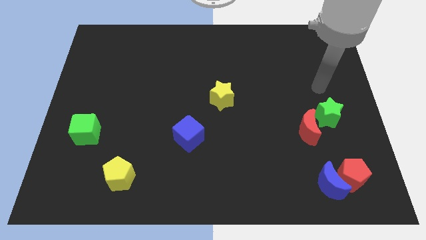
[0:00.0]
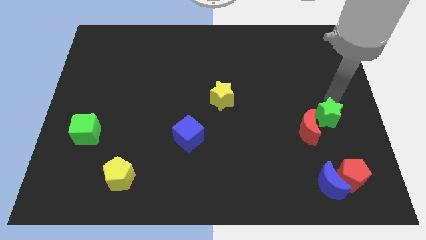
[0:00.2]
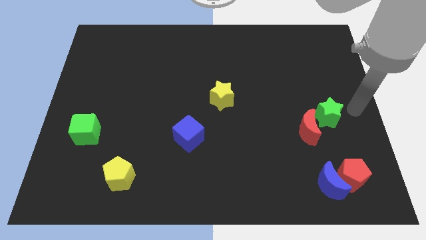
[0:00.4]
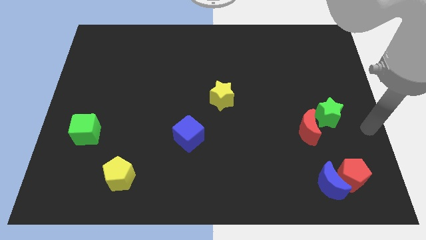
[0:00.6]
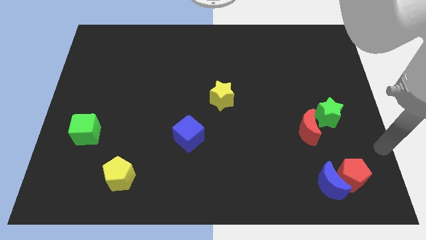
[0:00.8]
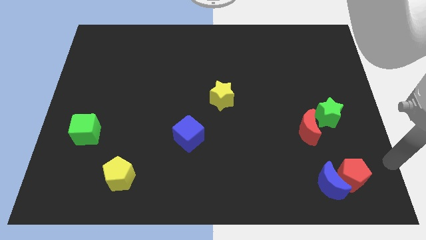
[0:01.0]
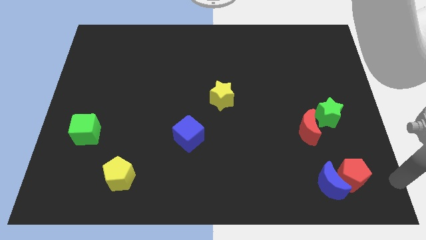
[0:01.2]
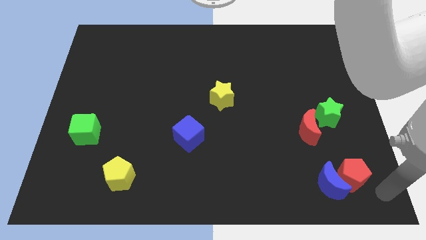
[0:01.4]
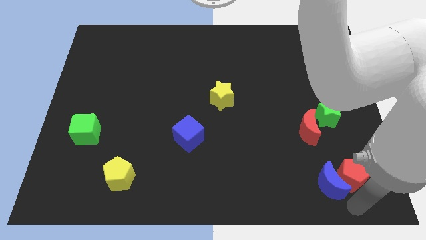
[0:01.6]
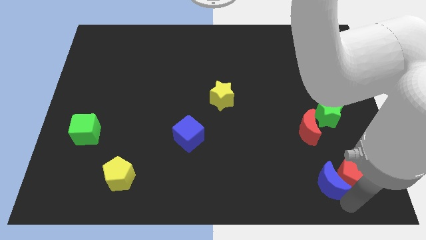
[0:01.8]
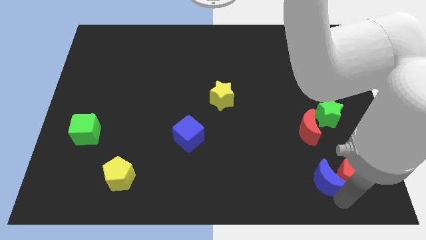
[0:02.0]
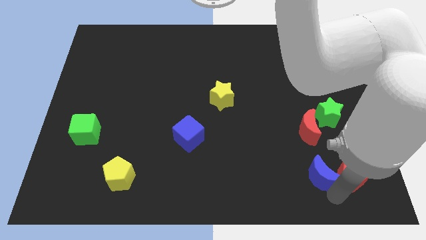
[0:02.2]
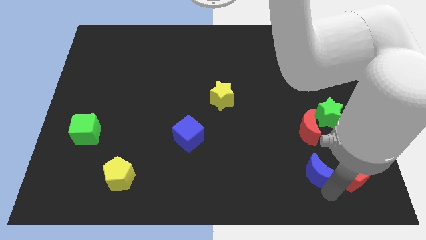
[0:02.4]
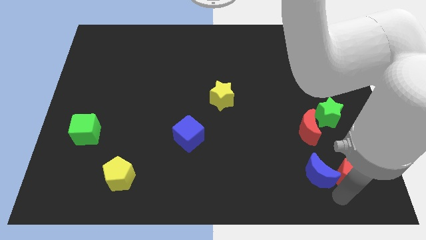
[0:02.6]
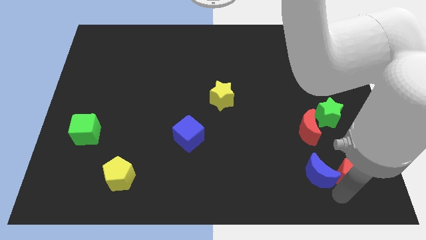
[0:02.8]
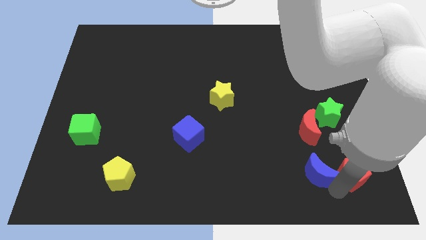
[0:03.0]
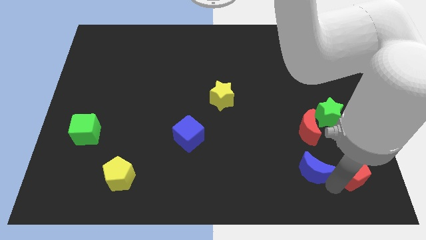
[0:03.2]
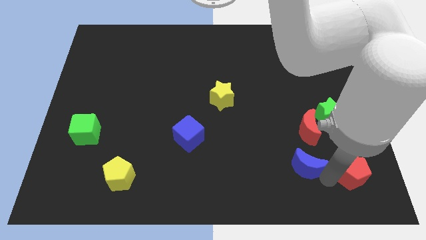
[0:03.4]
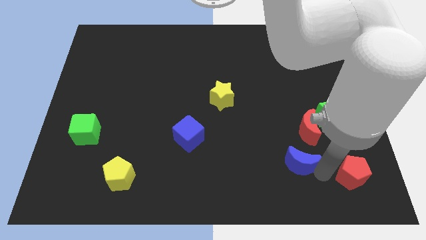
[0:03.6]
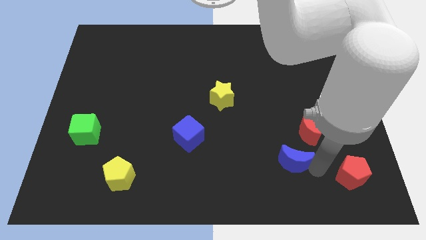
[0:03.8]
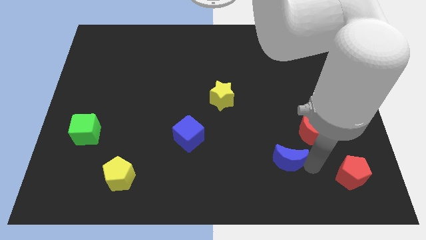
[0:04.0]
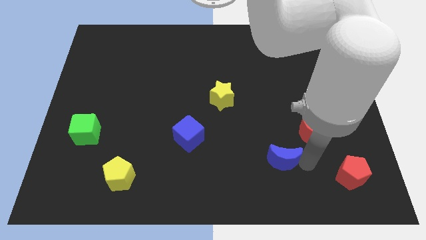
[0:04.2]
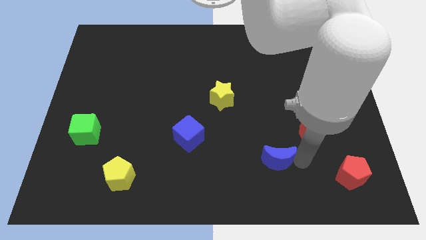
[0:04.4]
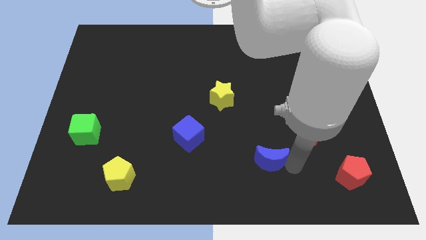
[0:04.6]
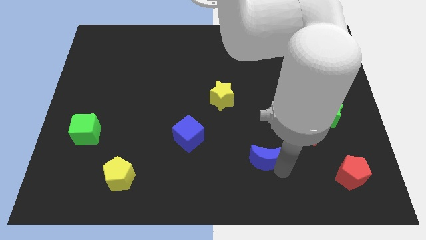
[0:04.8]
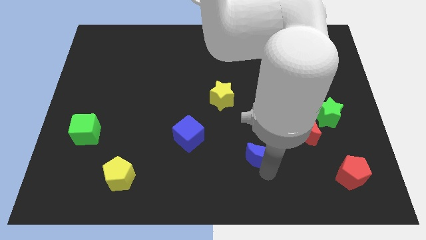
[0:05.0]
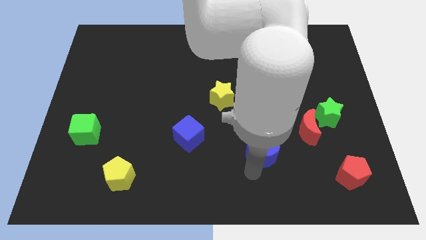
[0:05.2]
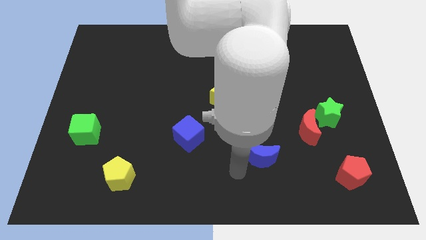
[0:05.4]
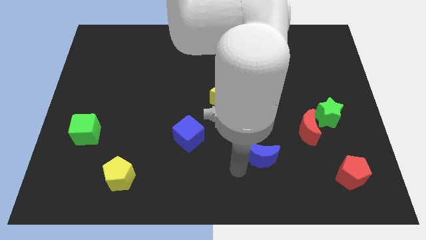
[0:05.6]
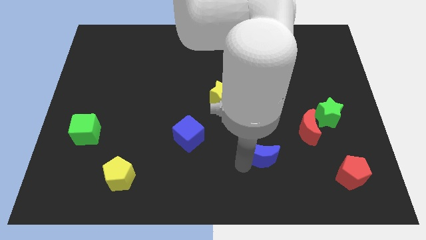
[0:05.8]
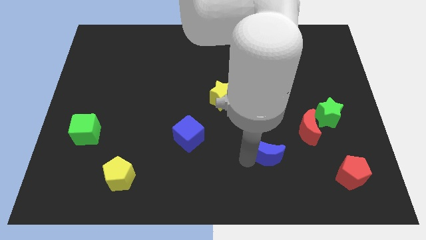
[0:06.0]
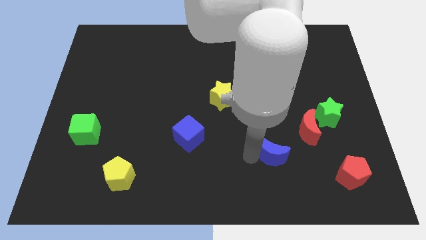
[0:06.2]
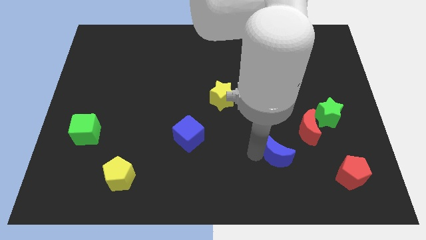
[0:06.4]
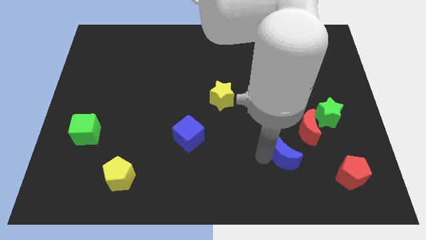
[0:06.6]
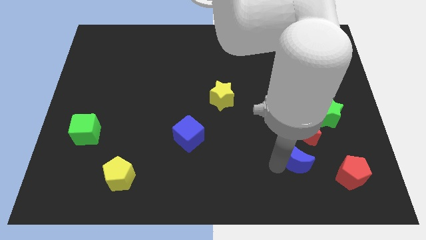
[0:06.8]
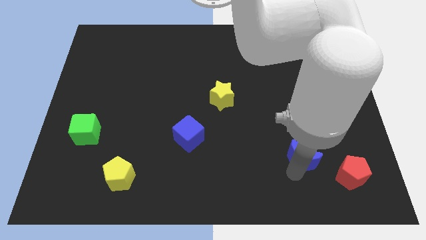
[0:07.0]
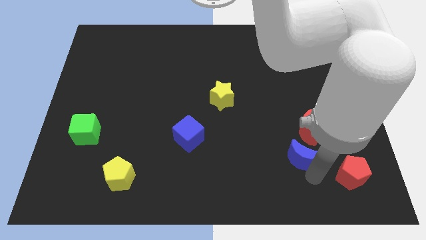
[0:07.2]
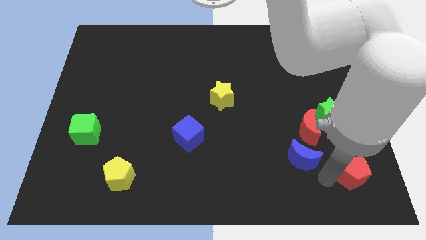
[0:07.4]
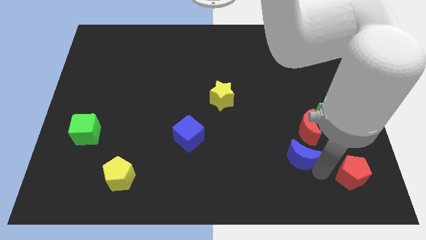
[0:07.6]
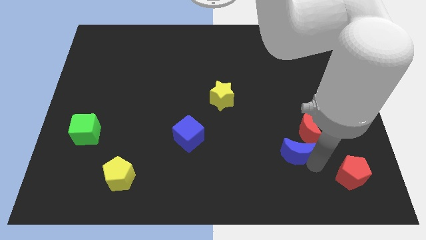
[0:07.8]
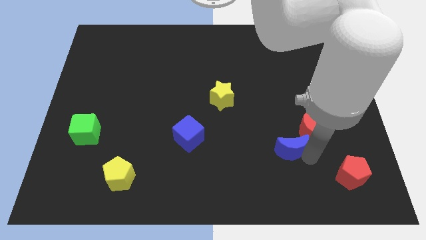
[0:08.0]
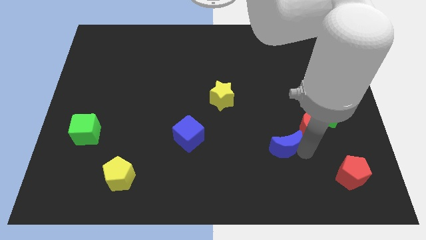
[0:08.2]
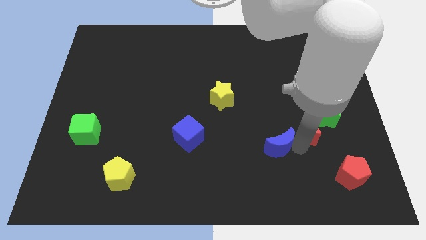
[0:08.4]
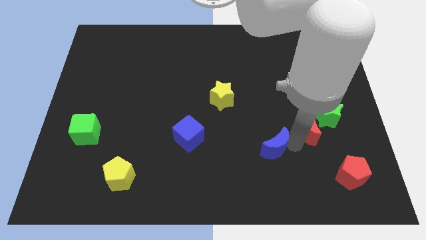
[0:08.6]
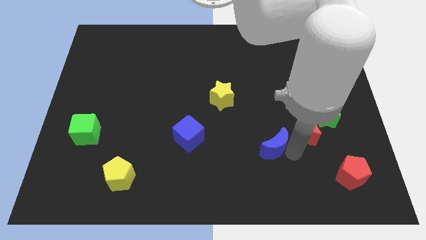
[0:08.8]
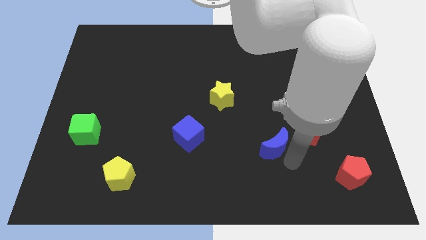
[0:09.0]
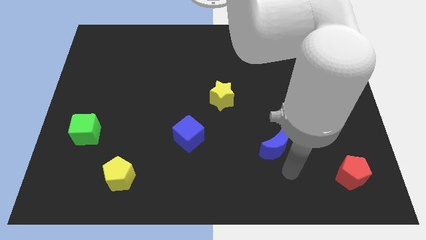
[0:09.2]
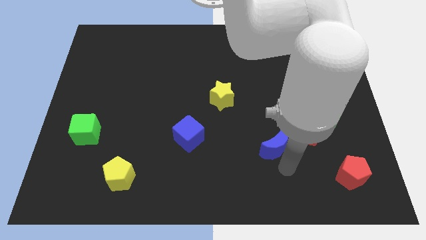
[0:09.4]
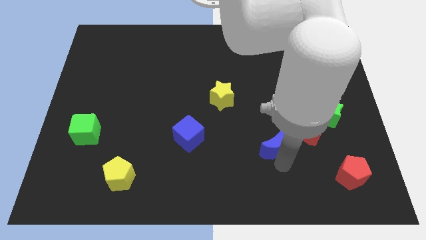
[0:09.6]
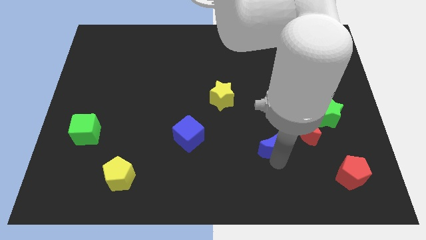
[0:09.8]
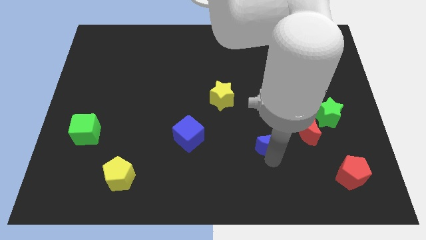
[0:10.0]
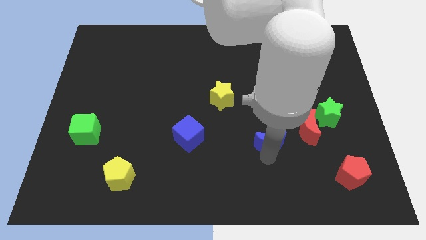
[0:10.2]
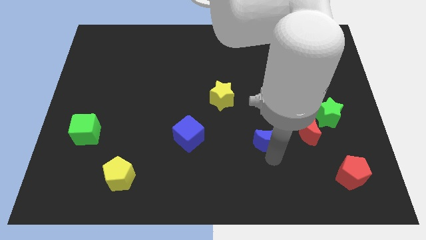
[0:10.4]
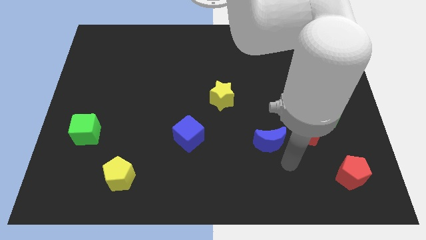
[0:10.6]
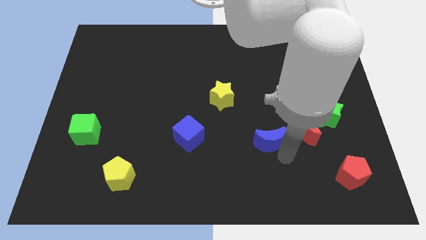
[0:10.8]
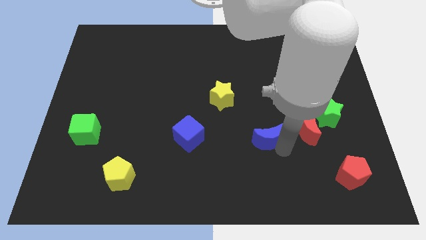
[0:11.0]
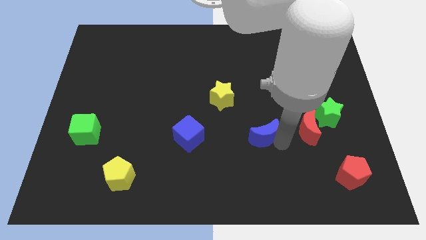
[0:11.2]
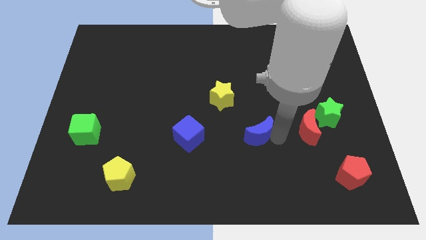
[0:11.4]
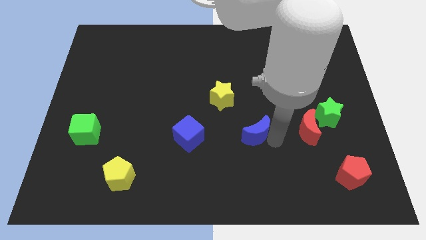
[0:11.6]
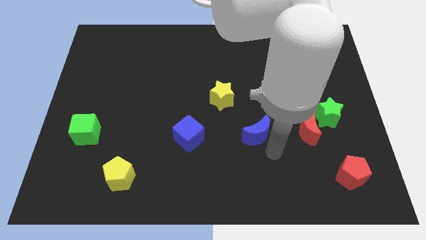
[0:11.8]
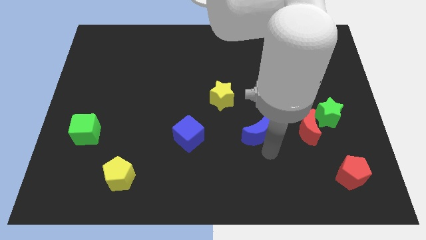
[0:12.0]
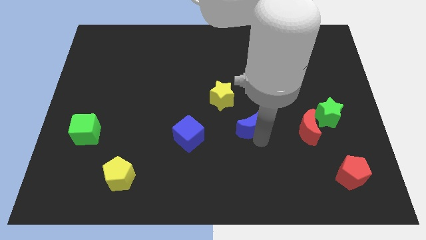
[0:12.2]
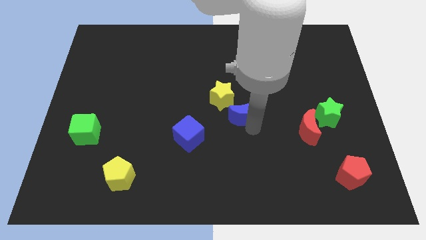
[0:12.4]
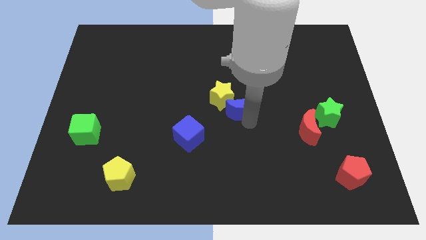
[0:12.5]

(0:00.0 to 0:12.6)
move the blue moon towards the yellow star

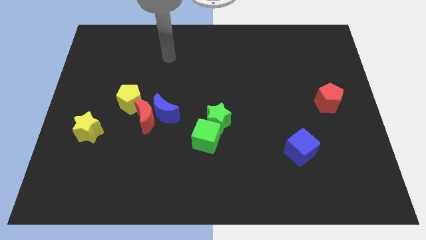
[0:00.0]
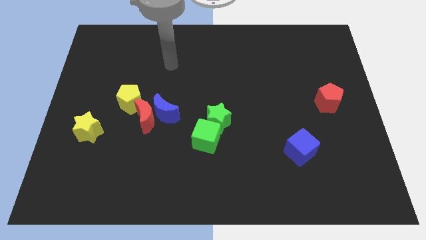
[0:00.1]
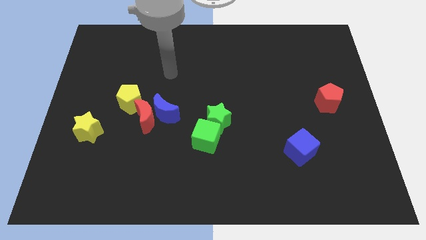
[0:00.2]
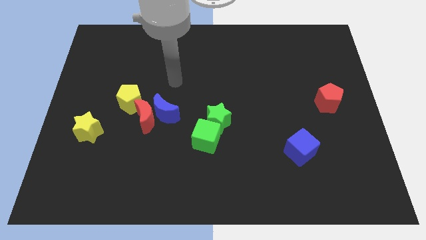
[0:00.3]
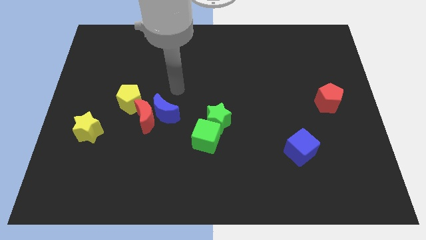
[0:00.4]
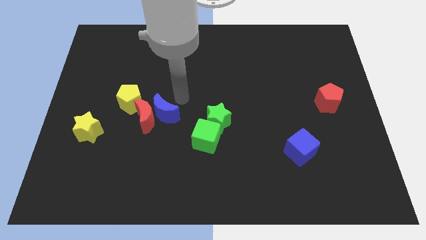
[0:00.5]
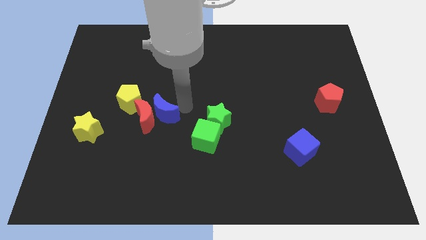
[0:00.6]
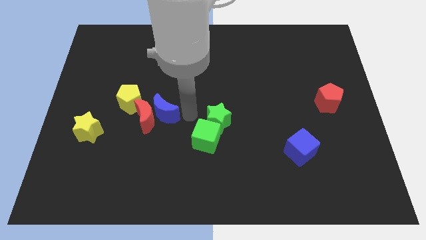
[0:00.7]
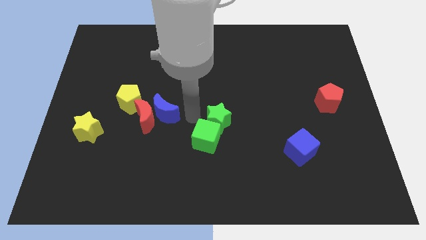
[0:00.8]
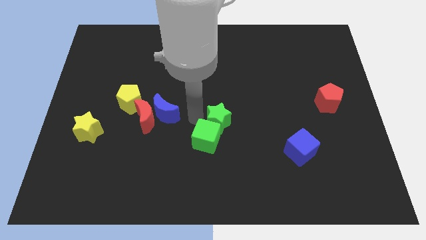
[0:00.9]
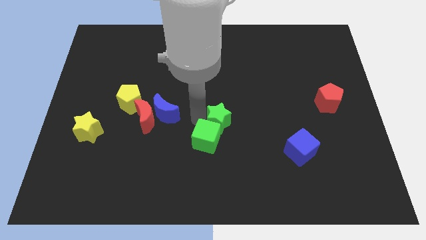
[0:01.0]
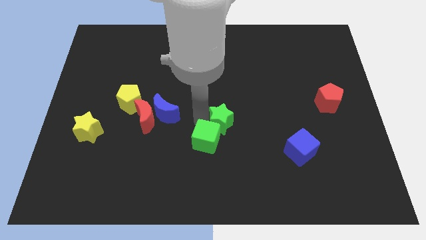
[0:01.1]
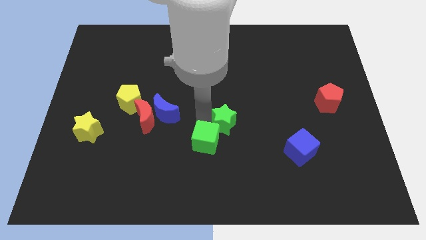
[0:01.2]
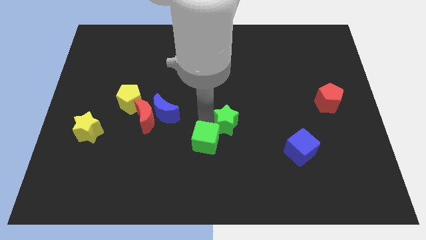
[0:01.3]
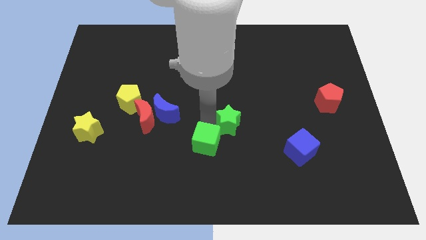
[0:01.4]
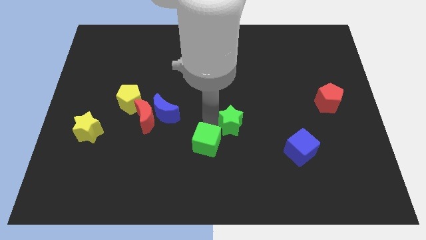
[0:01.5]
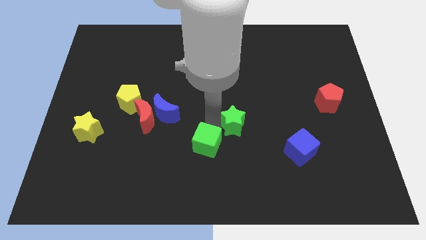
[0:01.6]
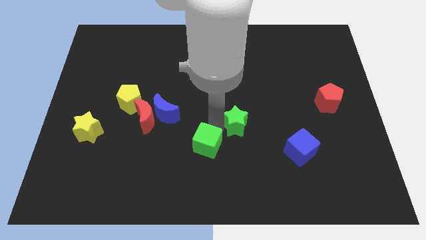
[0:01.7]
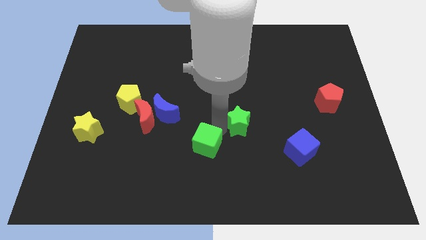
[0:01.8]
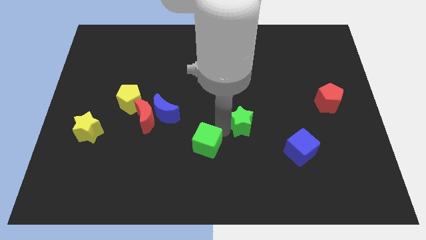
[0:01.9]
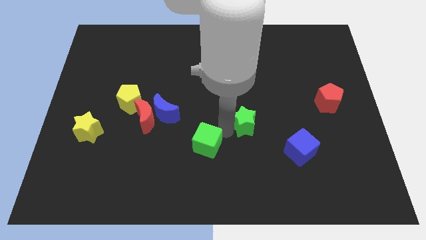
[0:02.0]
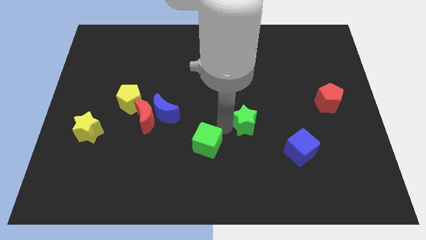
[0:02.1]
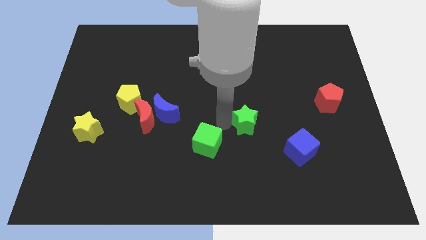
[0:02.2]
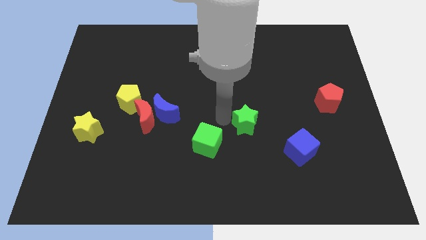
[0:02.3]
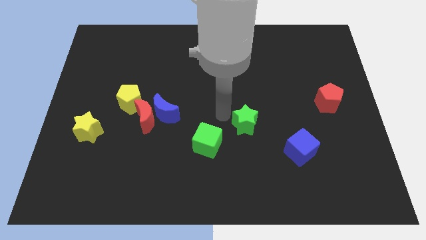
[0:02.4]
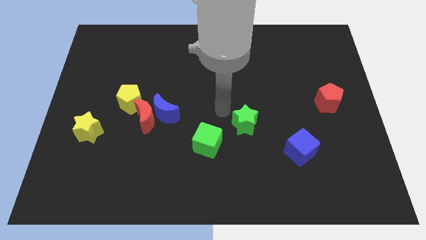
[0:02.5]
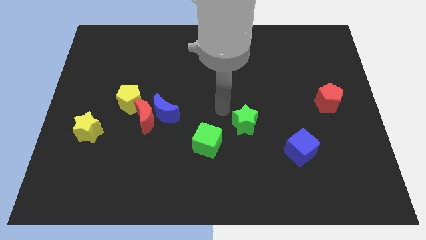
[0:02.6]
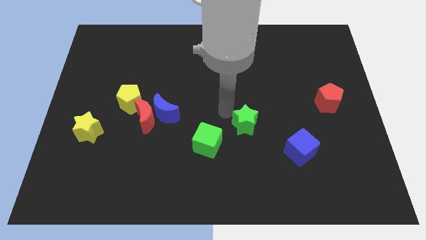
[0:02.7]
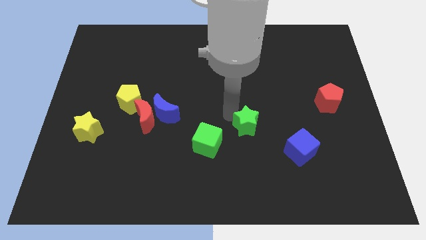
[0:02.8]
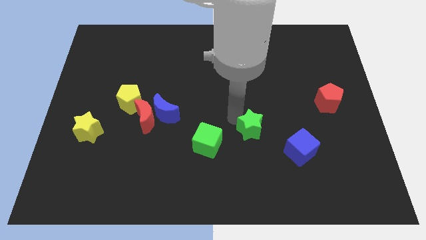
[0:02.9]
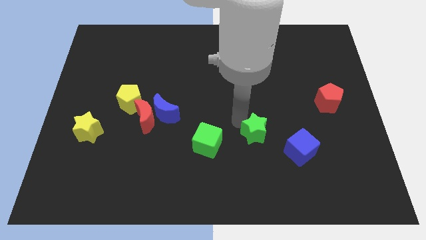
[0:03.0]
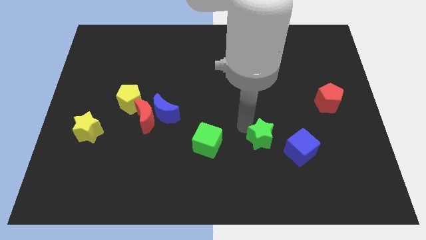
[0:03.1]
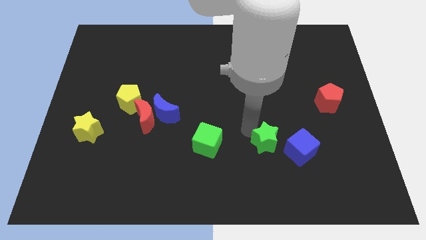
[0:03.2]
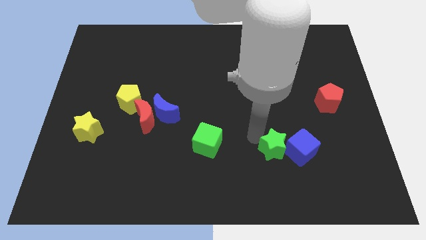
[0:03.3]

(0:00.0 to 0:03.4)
slide the green star close to the blue cube
